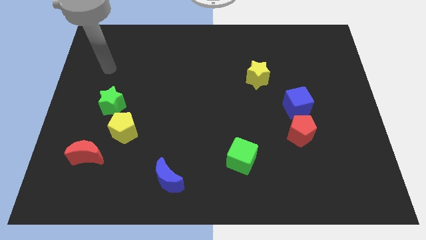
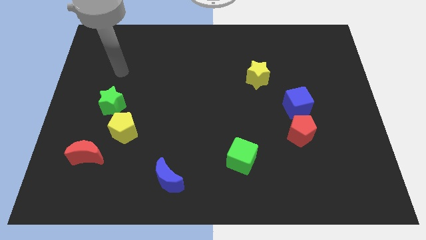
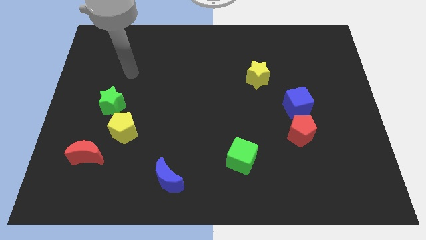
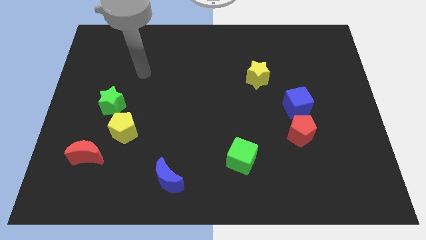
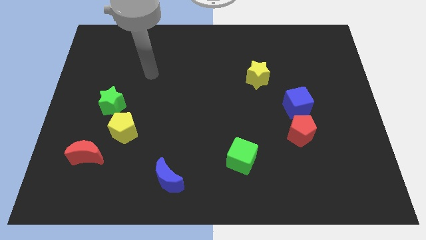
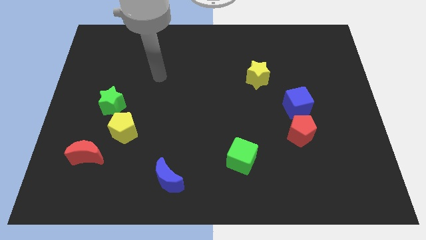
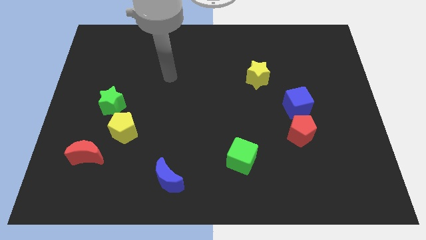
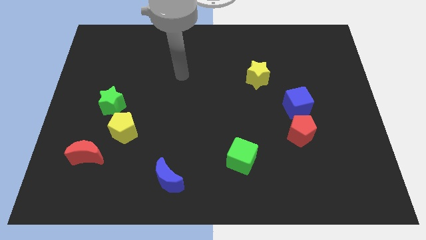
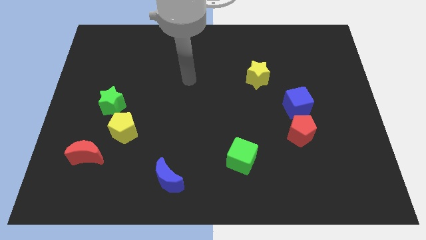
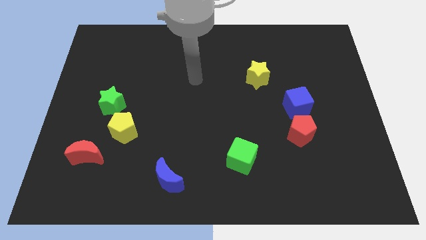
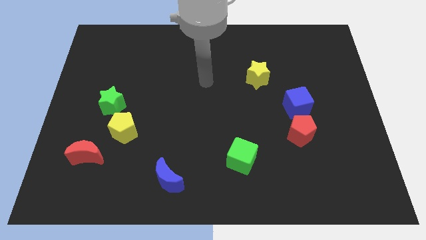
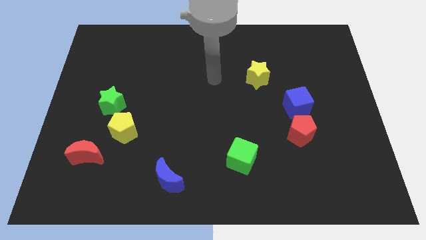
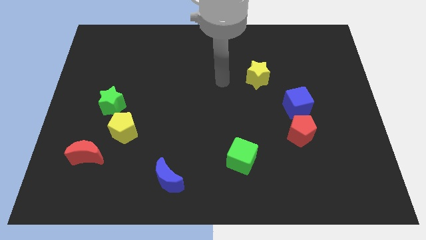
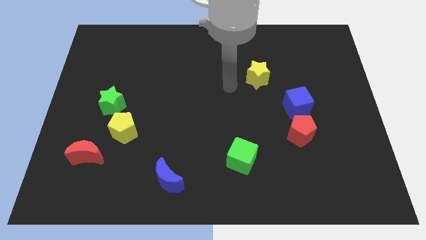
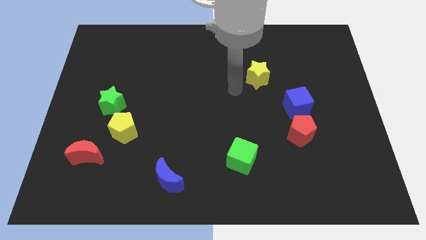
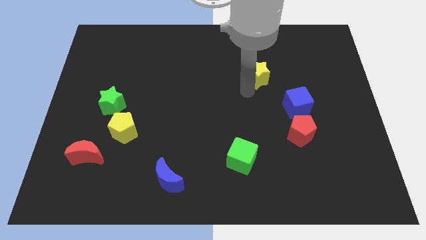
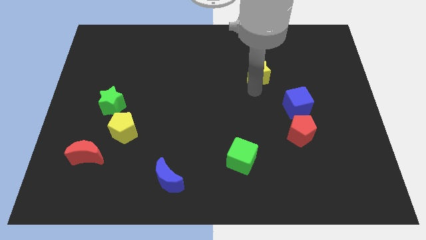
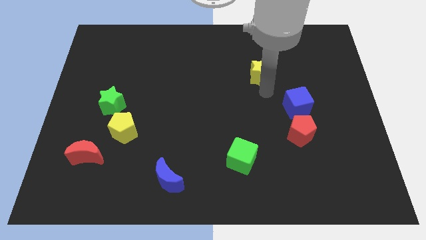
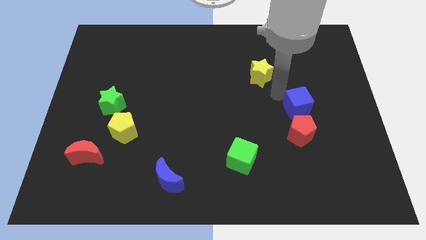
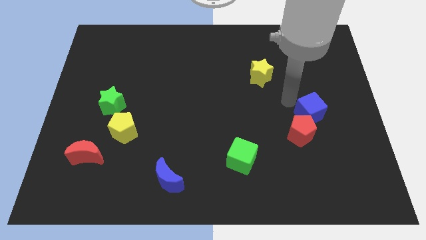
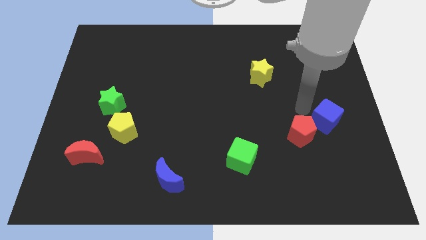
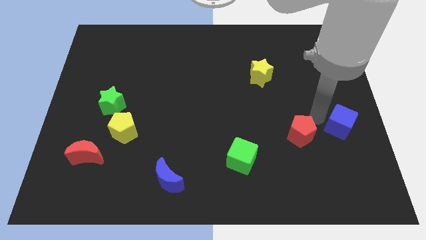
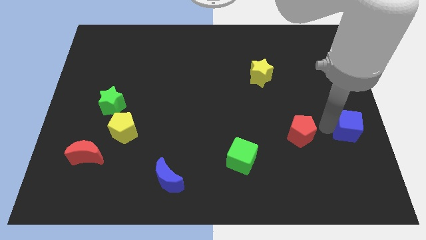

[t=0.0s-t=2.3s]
move the red pentagon away from the blue cube

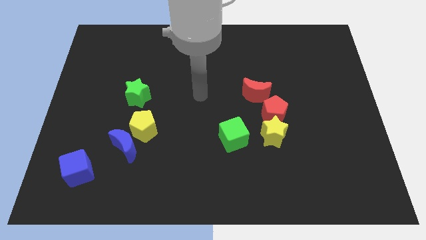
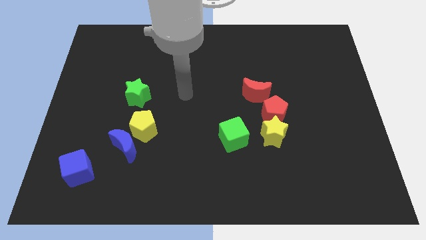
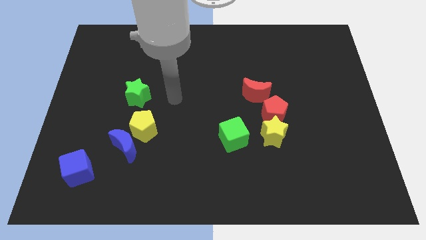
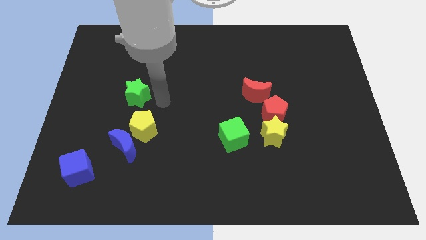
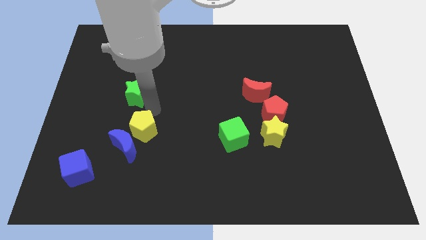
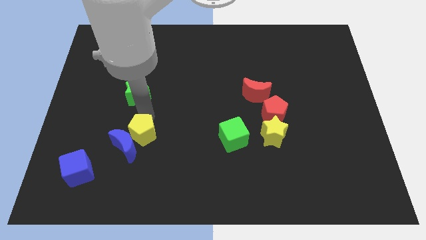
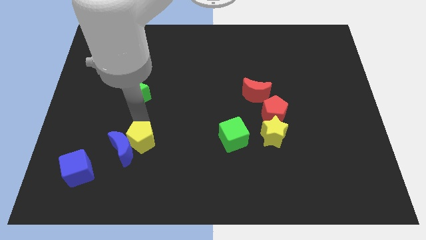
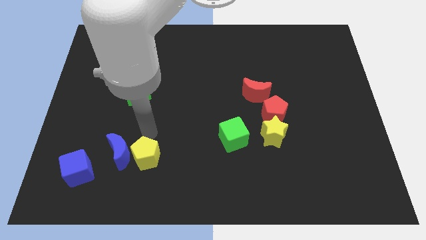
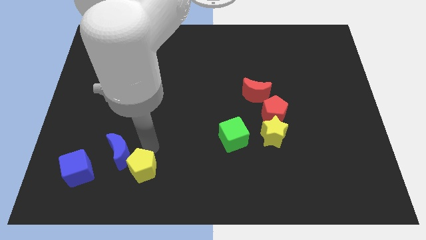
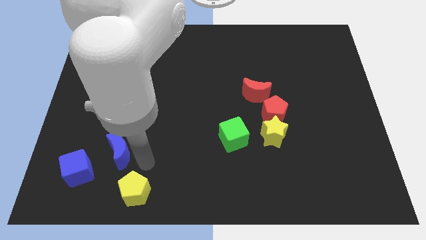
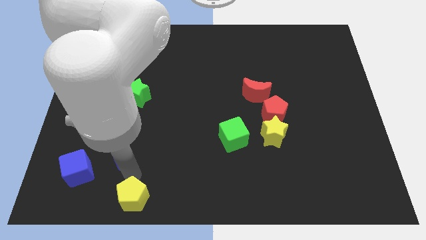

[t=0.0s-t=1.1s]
separate the blue moon from the yellow pentagon

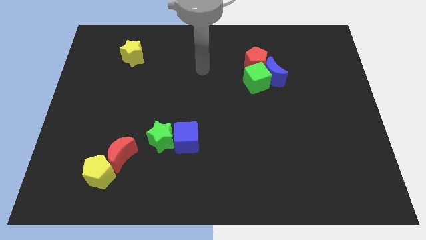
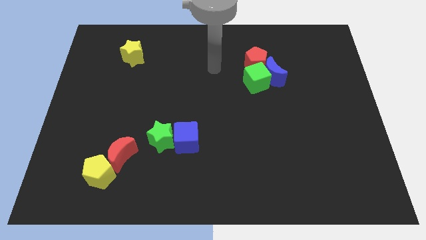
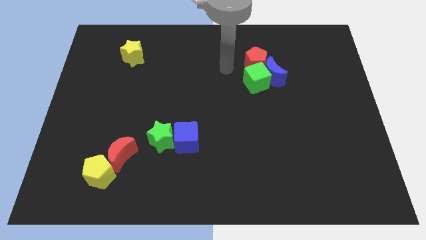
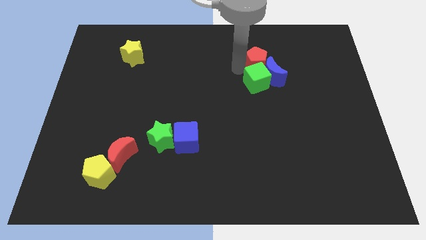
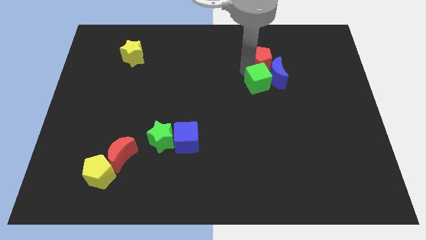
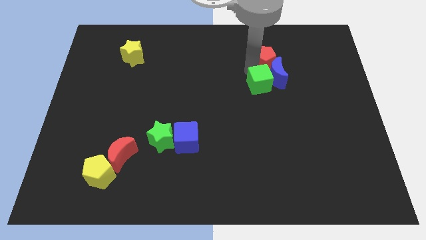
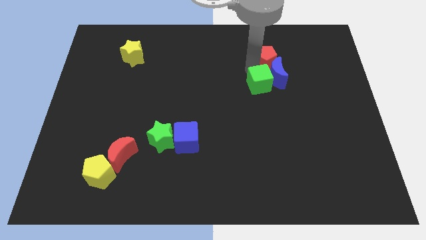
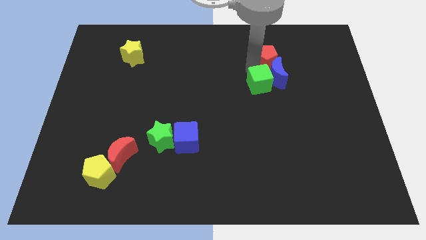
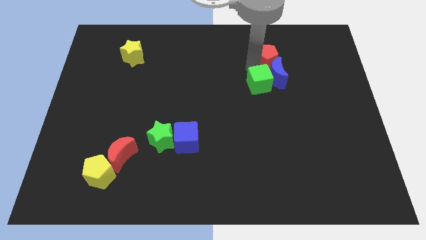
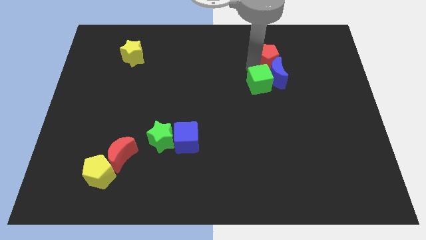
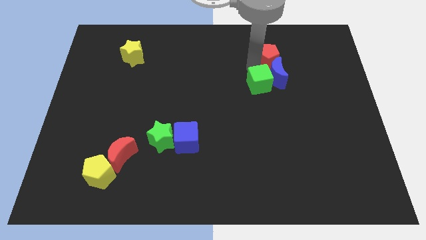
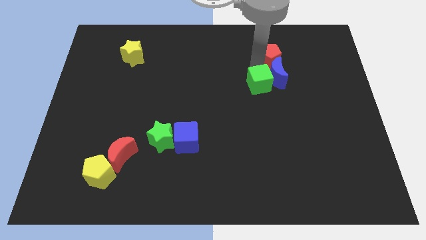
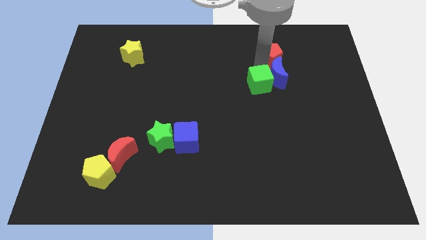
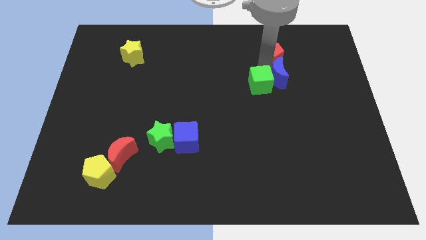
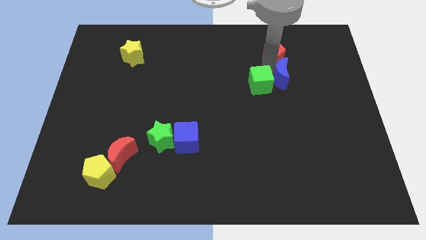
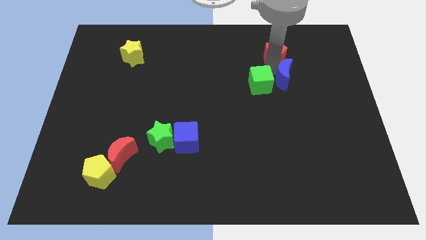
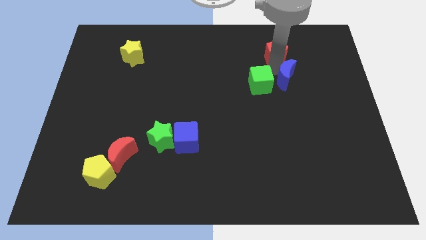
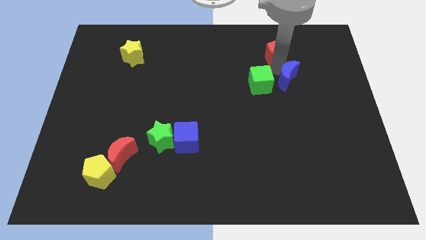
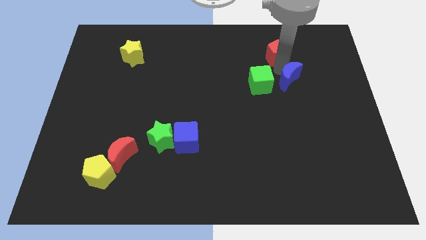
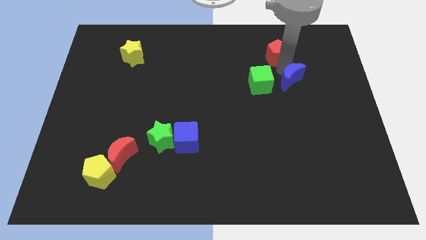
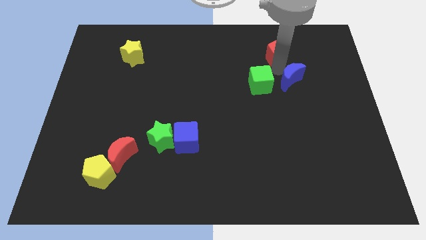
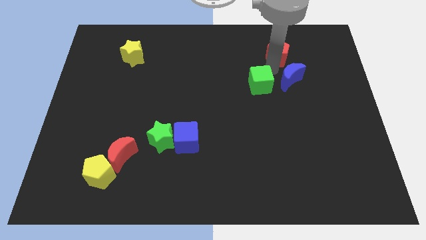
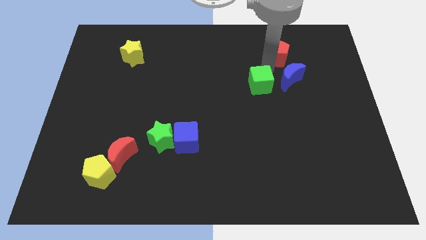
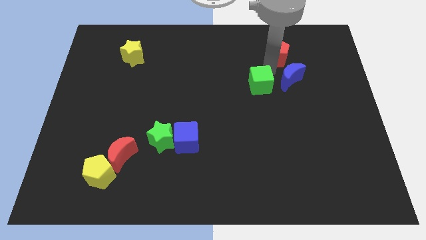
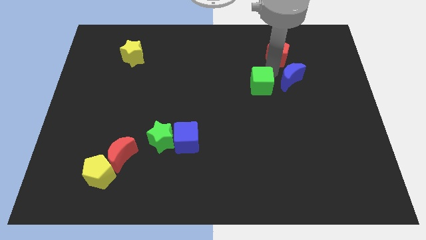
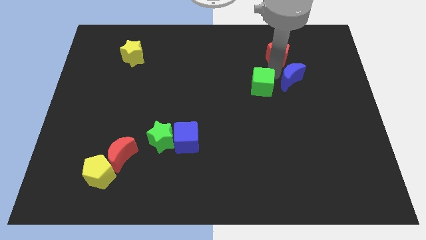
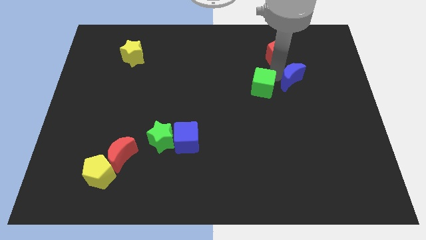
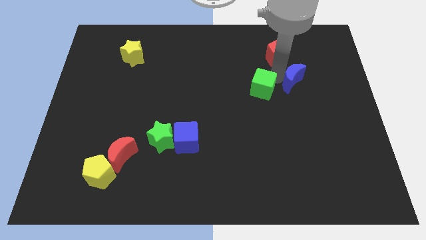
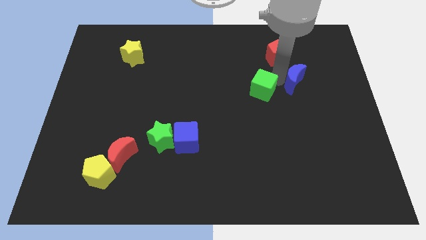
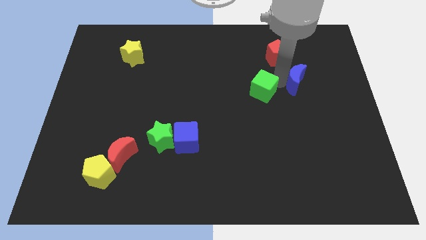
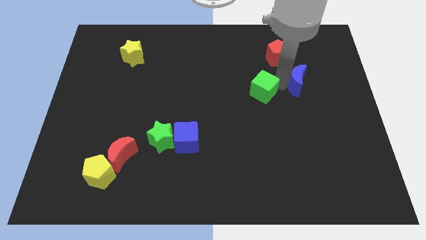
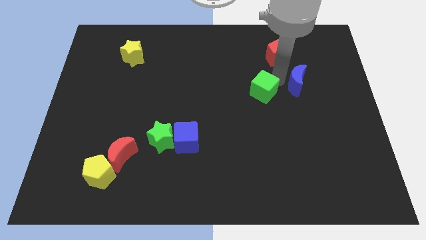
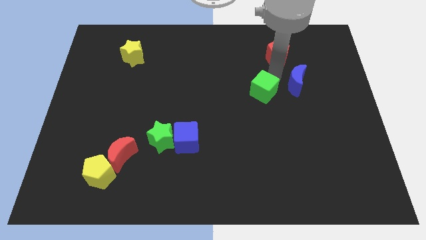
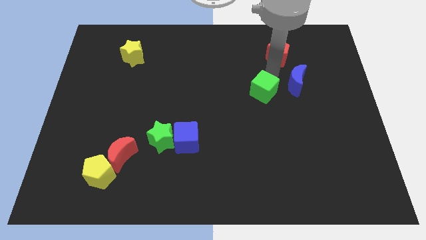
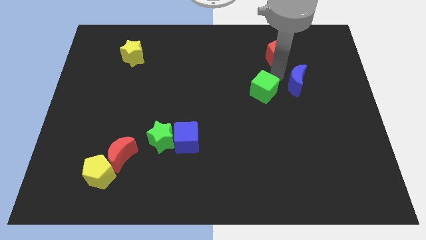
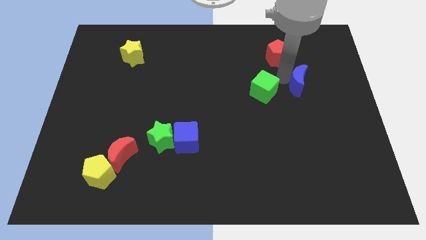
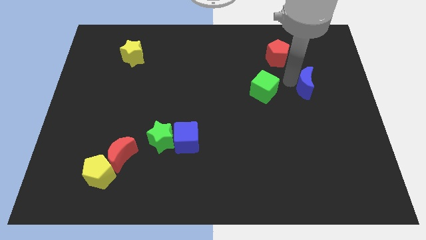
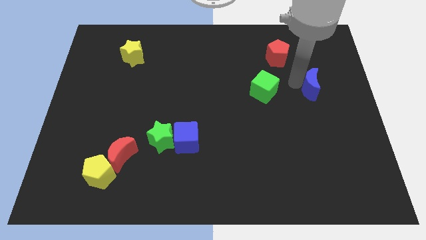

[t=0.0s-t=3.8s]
separate the blue moon from the green cube and red pentagon

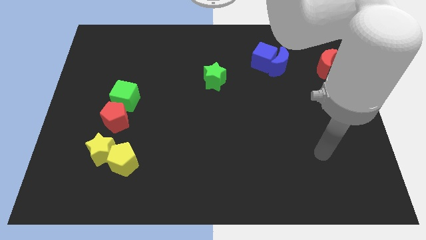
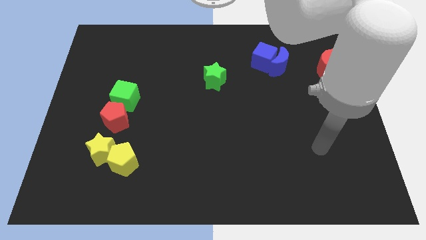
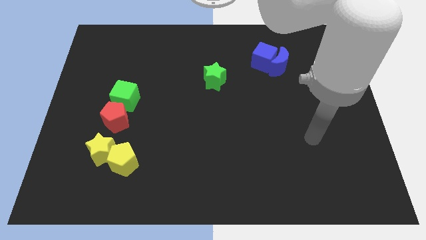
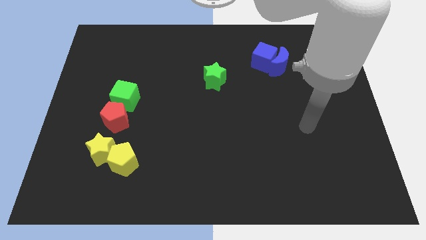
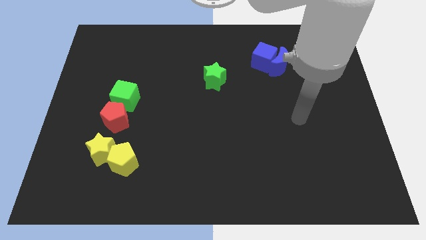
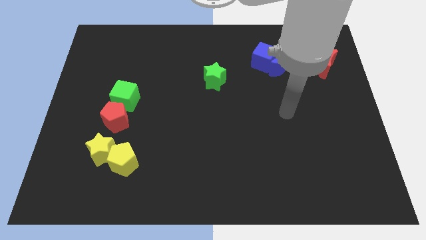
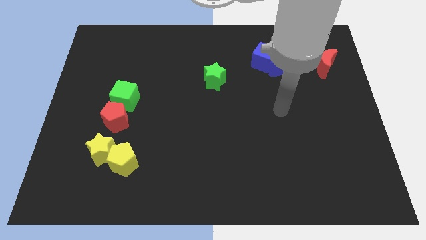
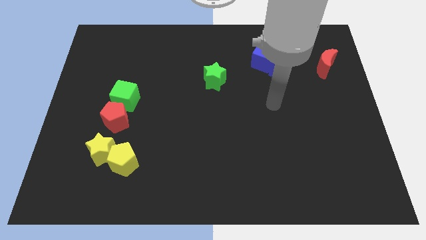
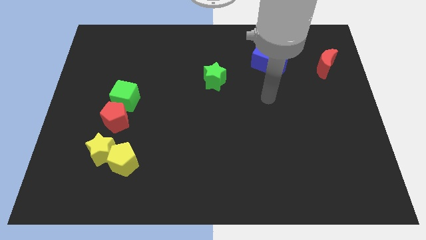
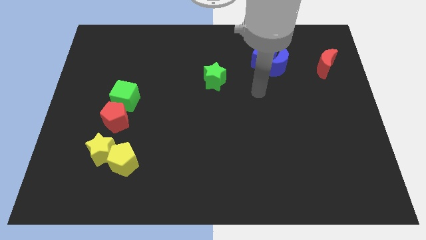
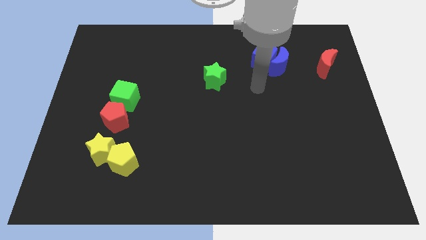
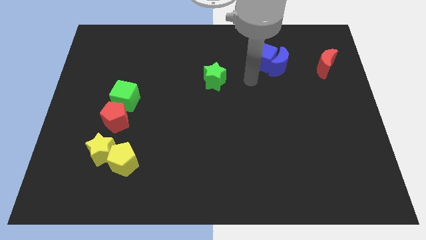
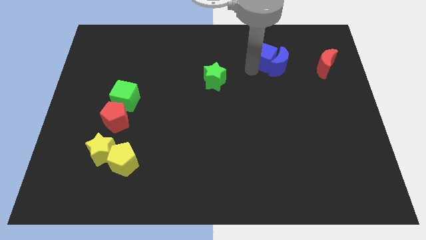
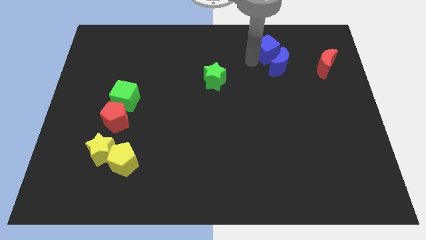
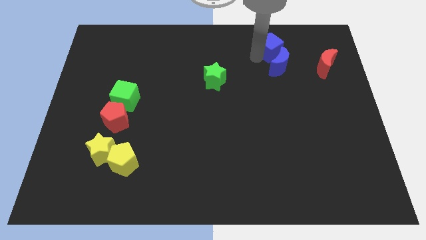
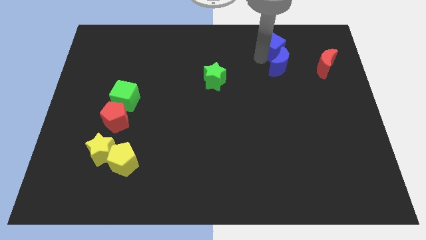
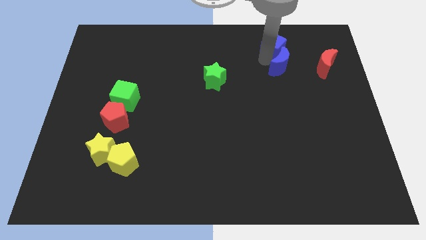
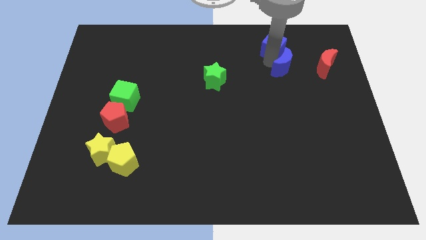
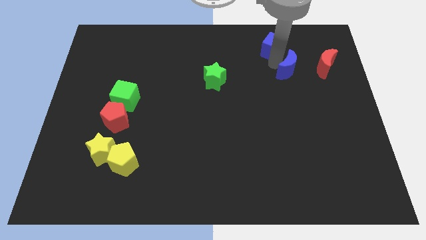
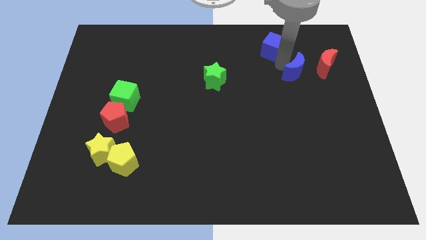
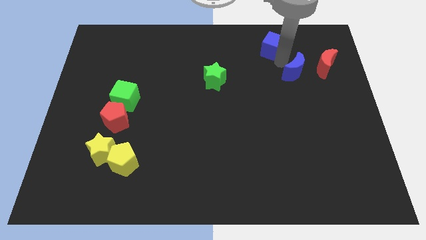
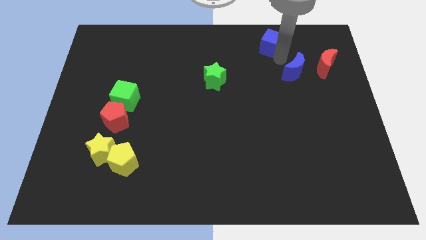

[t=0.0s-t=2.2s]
separate the blue moon from the blue cube

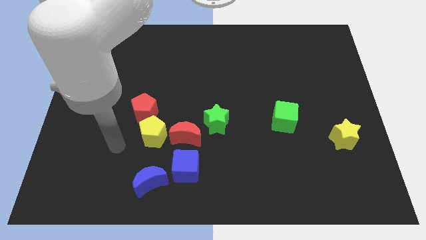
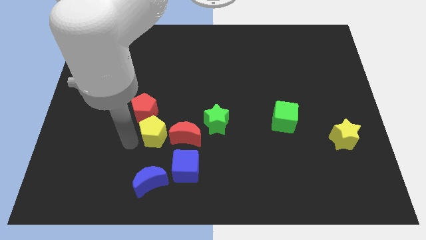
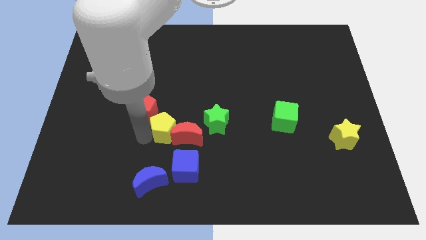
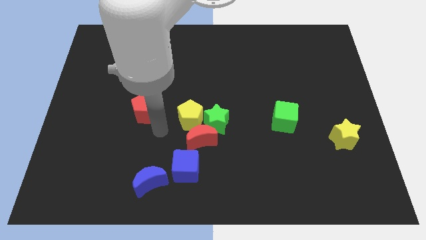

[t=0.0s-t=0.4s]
separate the red pentagon from the yellow pentagon
